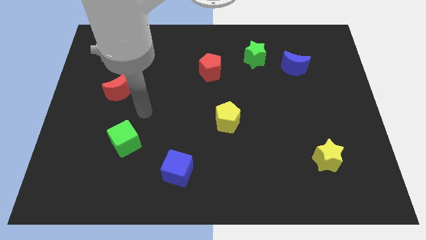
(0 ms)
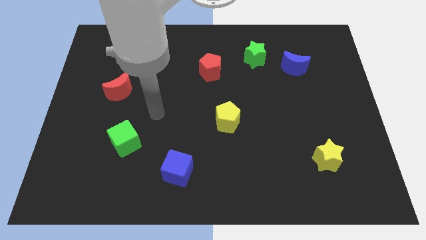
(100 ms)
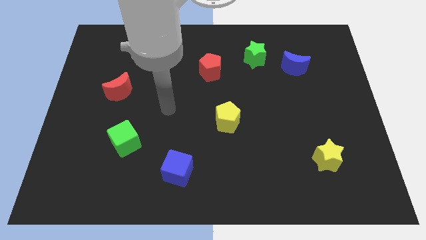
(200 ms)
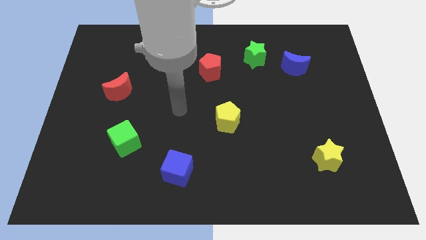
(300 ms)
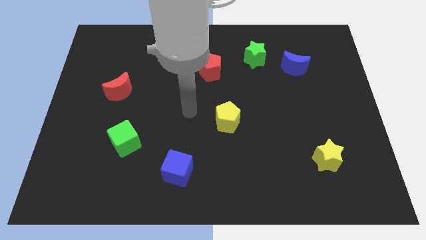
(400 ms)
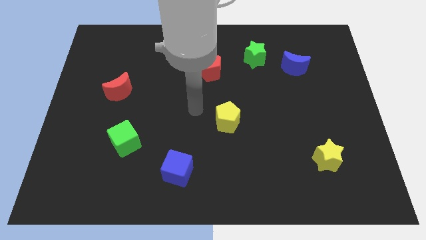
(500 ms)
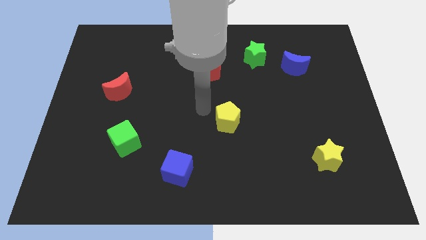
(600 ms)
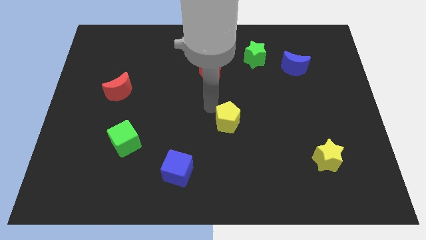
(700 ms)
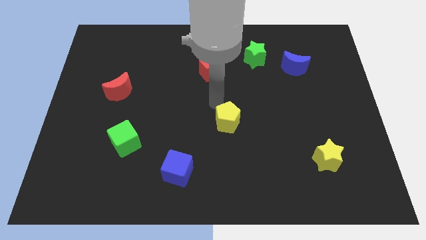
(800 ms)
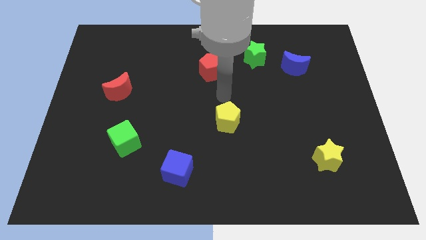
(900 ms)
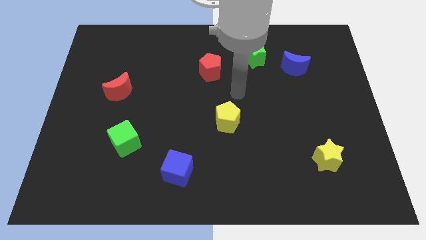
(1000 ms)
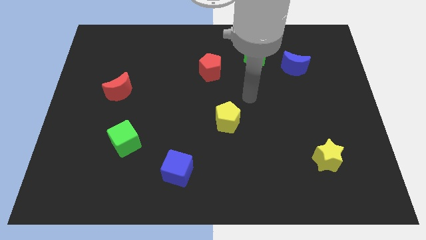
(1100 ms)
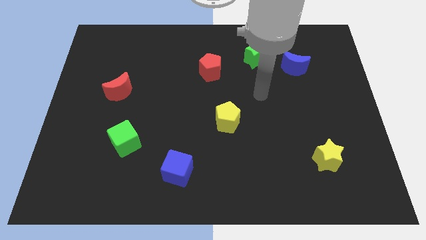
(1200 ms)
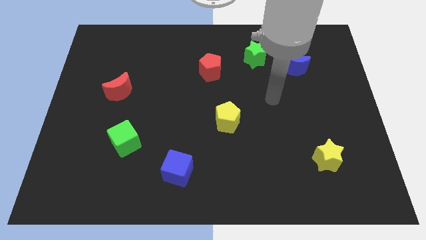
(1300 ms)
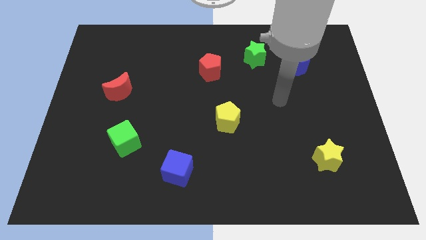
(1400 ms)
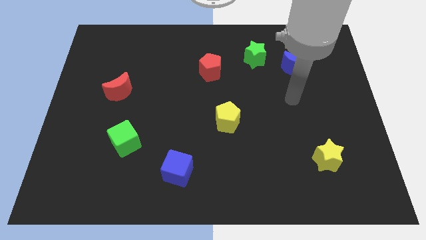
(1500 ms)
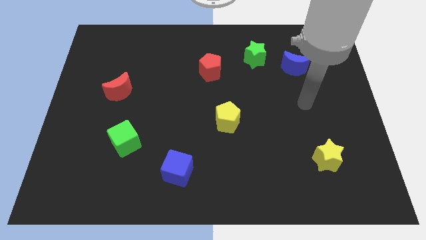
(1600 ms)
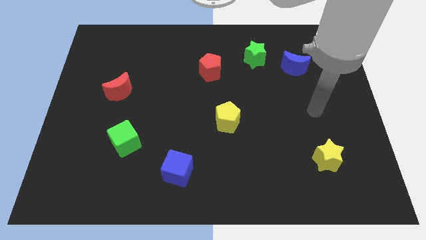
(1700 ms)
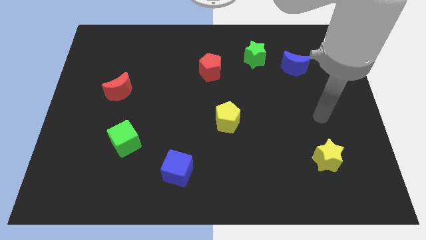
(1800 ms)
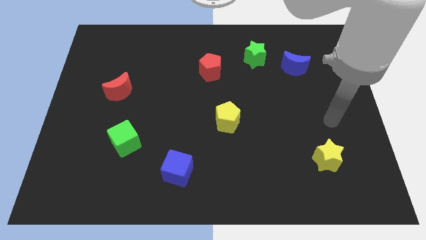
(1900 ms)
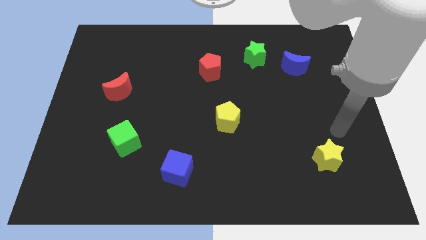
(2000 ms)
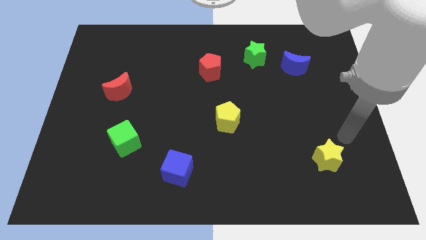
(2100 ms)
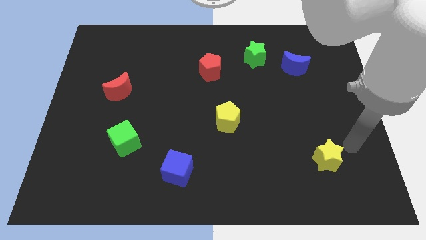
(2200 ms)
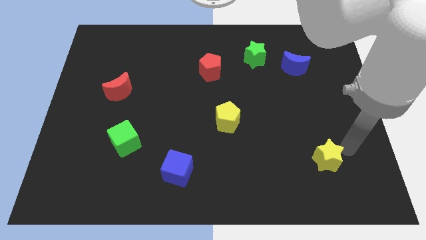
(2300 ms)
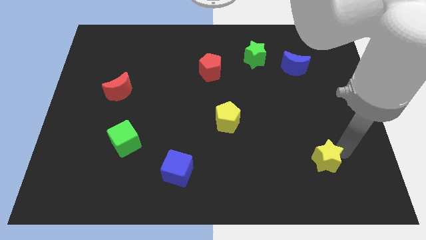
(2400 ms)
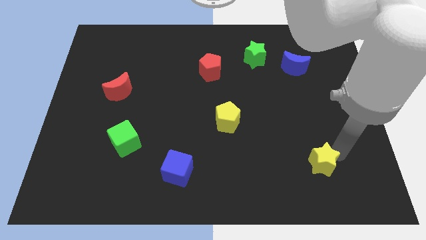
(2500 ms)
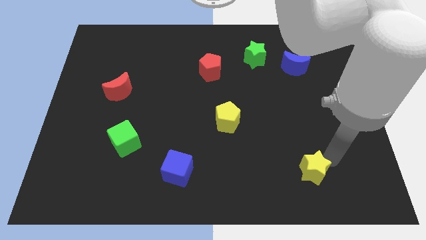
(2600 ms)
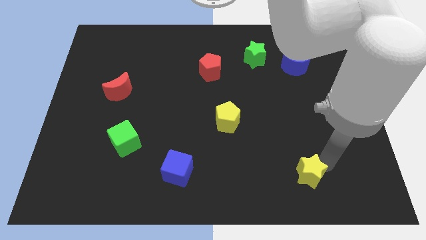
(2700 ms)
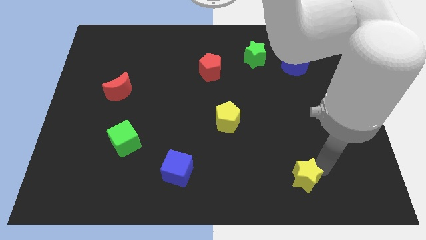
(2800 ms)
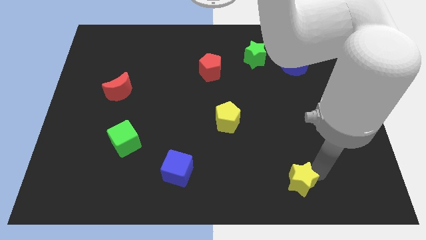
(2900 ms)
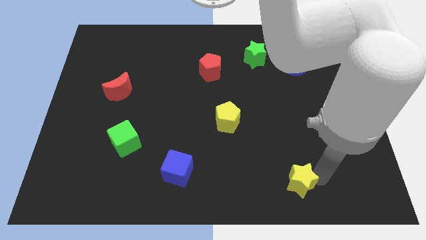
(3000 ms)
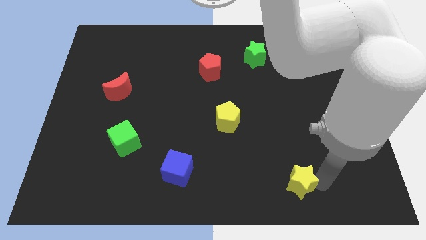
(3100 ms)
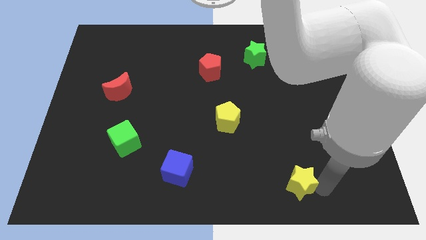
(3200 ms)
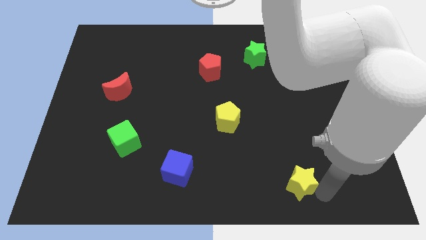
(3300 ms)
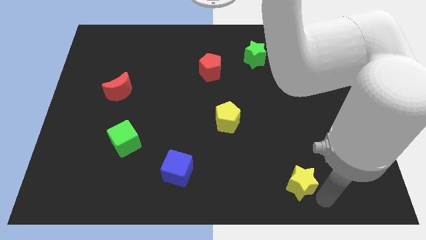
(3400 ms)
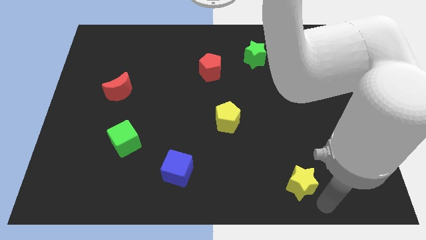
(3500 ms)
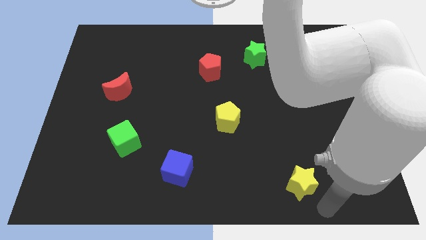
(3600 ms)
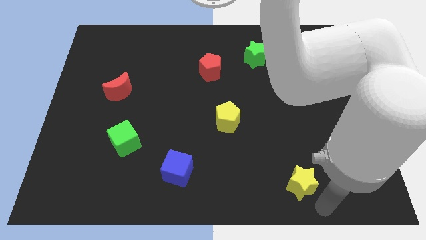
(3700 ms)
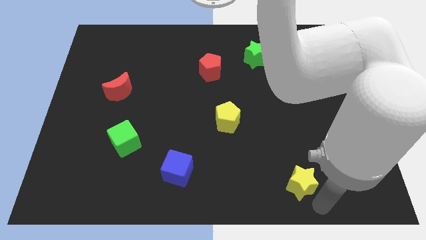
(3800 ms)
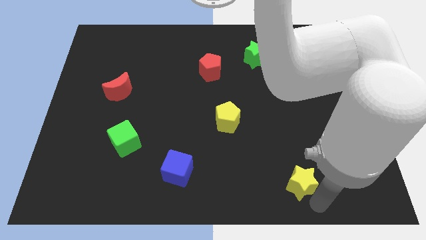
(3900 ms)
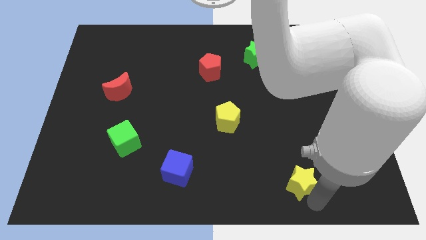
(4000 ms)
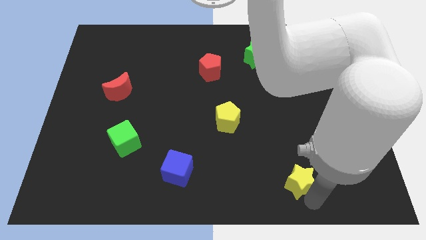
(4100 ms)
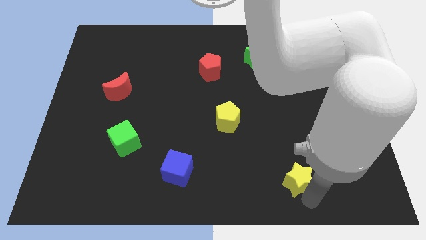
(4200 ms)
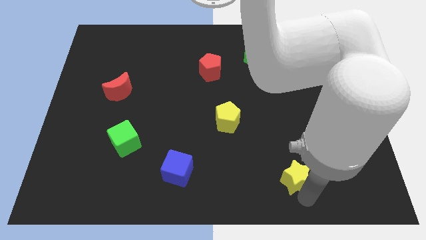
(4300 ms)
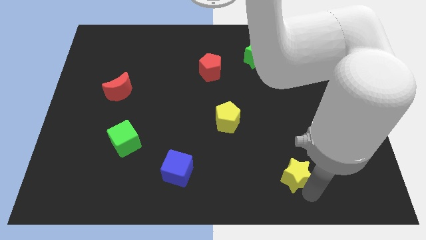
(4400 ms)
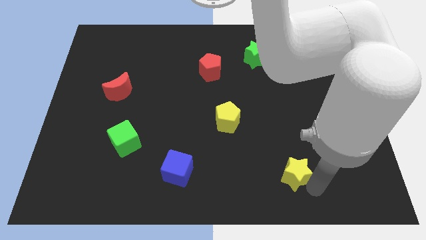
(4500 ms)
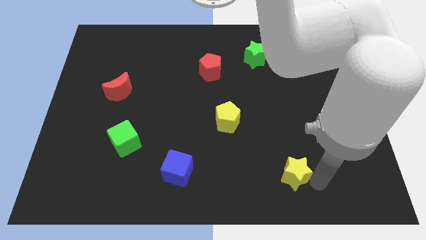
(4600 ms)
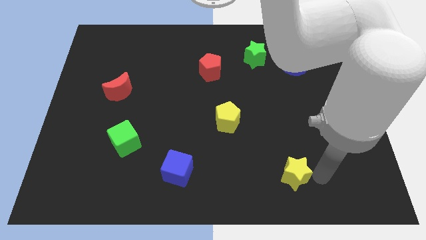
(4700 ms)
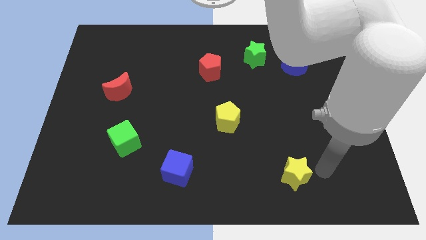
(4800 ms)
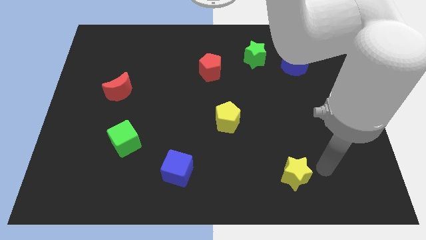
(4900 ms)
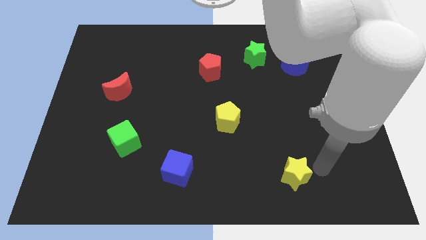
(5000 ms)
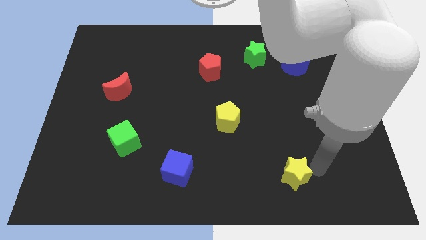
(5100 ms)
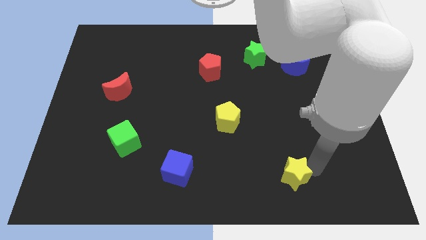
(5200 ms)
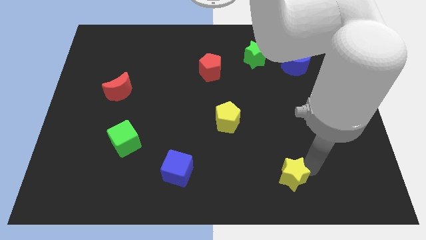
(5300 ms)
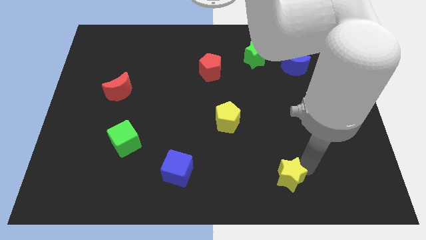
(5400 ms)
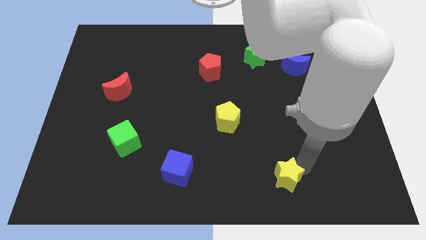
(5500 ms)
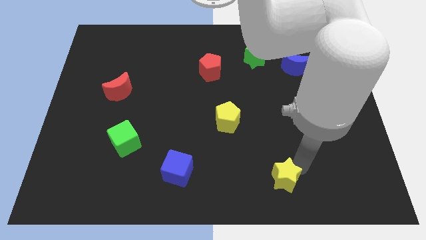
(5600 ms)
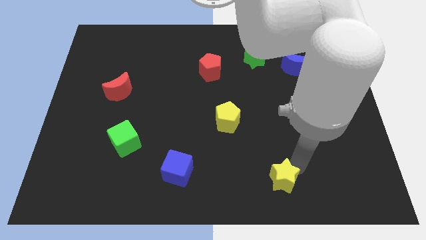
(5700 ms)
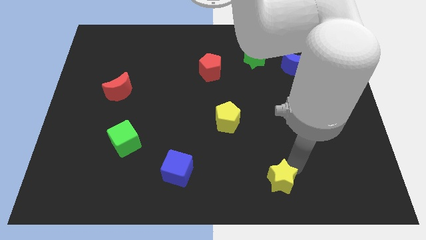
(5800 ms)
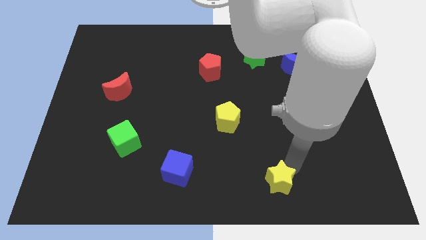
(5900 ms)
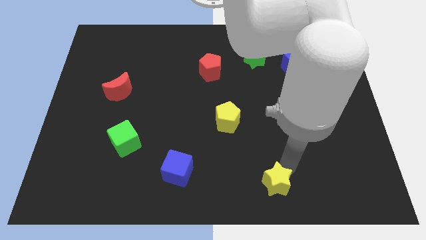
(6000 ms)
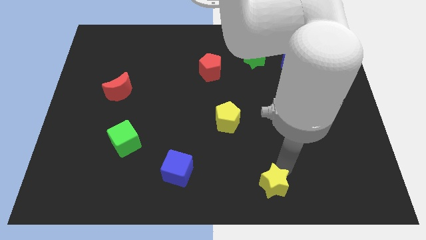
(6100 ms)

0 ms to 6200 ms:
slide the yellow star to the bottom
